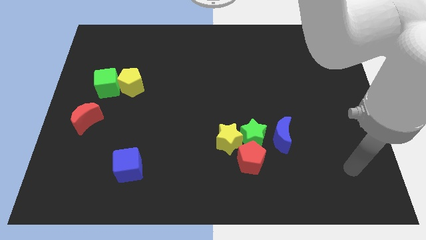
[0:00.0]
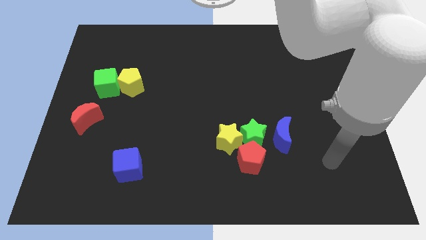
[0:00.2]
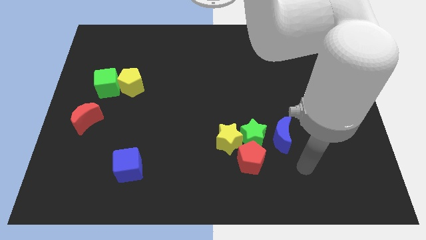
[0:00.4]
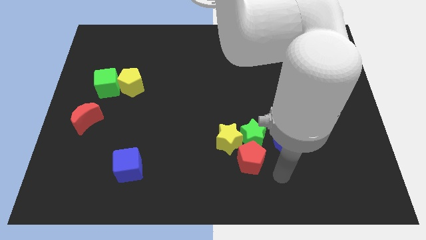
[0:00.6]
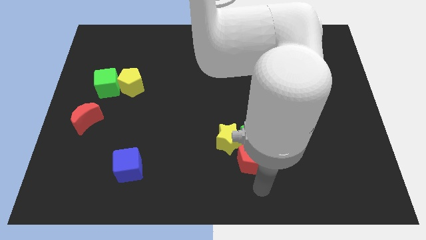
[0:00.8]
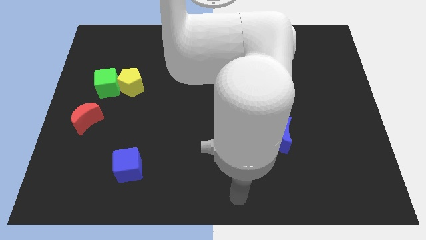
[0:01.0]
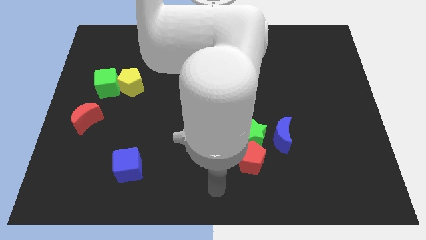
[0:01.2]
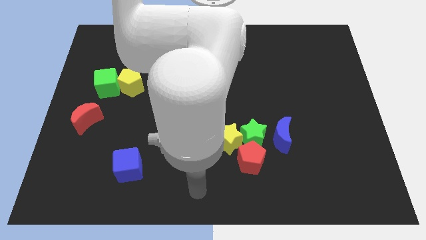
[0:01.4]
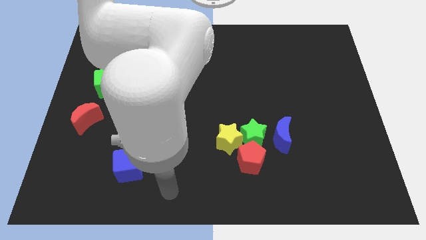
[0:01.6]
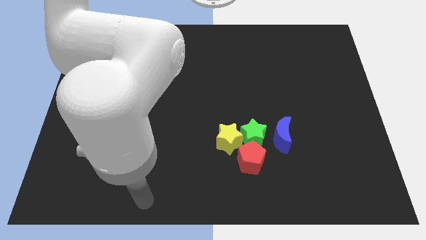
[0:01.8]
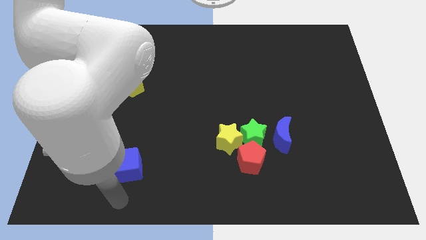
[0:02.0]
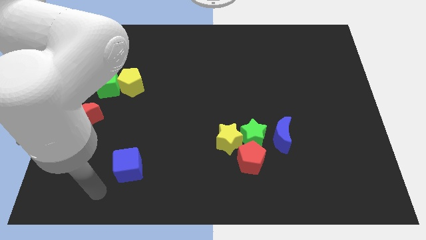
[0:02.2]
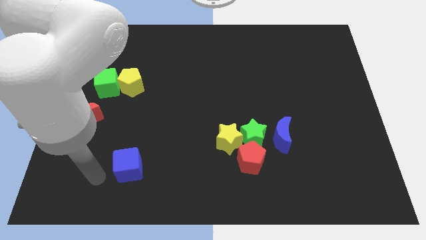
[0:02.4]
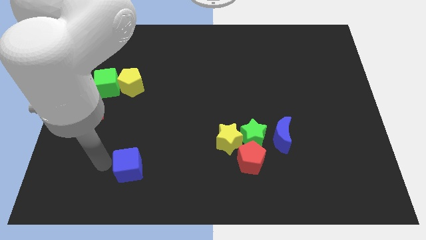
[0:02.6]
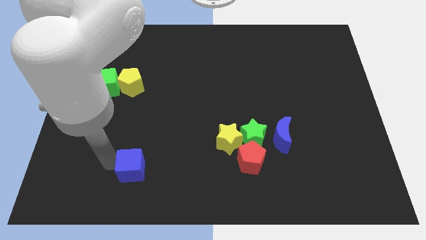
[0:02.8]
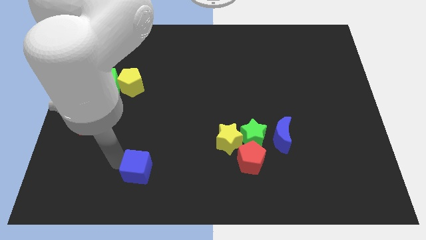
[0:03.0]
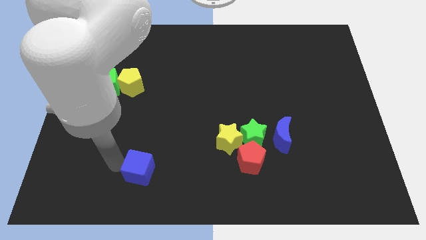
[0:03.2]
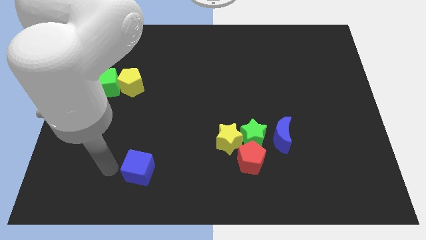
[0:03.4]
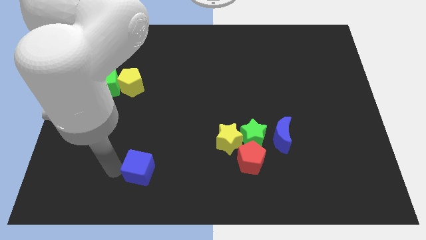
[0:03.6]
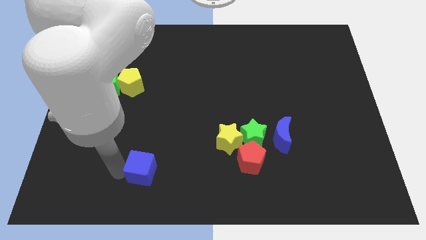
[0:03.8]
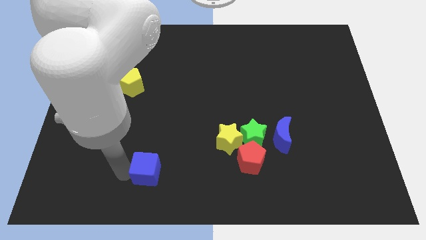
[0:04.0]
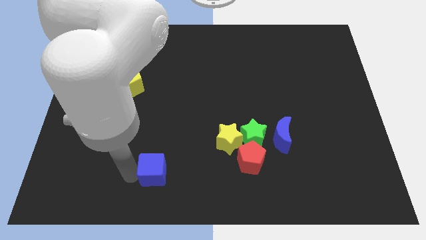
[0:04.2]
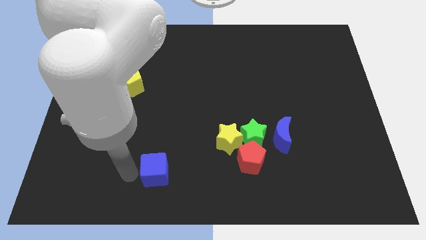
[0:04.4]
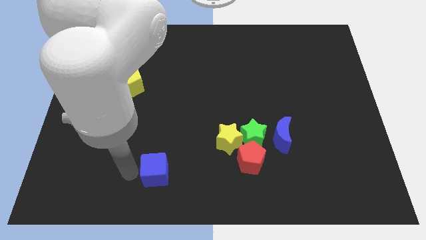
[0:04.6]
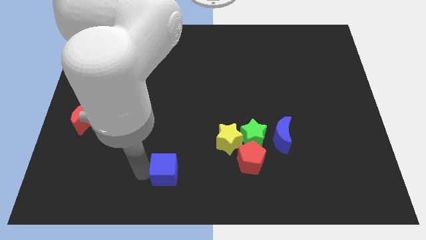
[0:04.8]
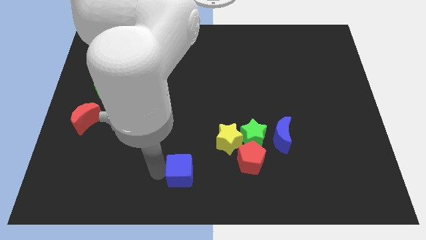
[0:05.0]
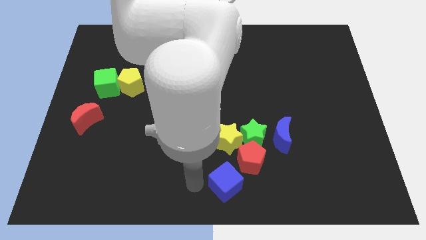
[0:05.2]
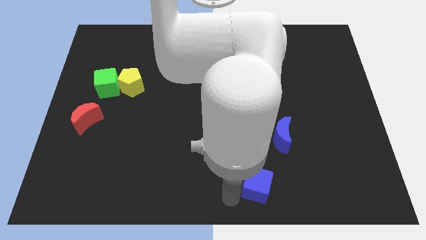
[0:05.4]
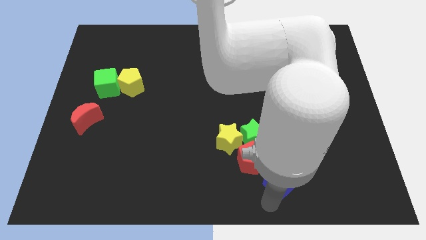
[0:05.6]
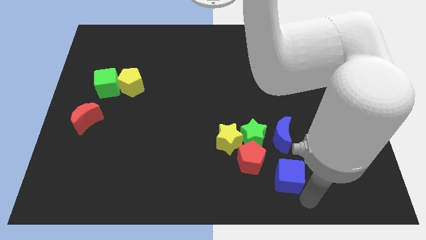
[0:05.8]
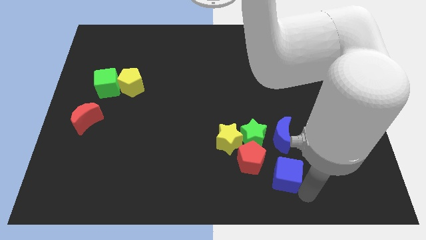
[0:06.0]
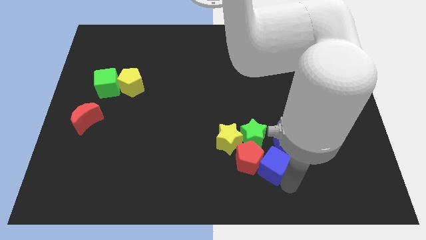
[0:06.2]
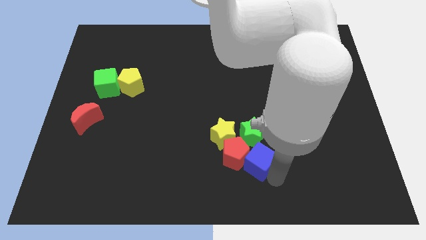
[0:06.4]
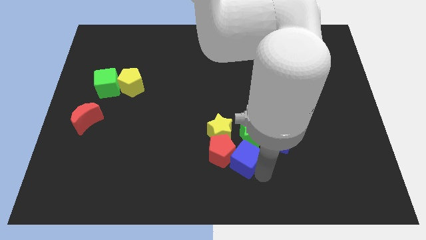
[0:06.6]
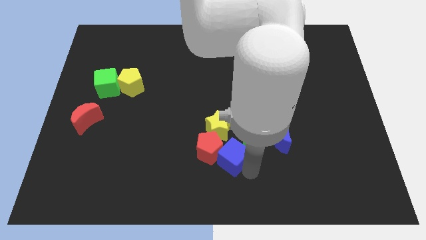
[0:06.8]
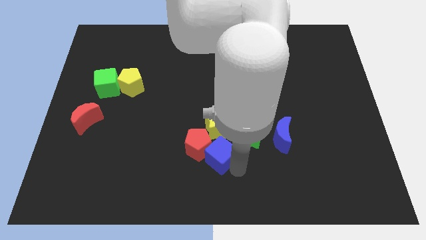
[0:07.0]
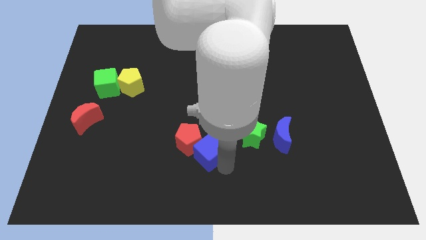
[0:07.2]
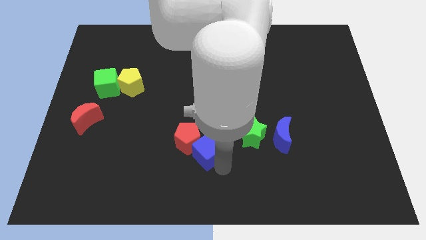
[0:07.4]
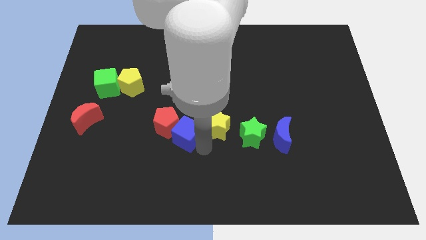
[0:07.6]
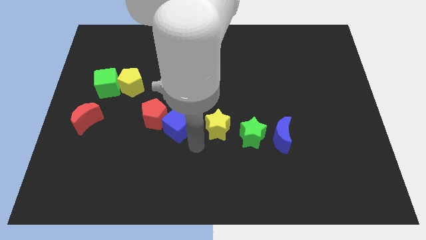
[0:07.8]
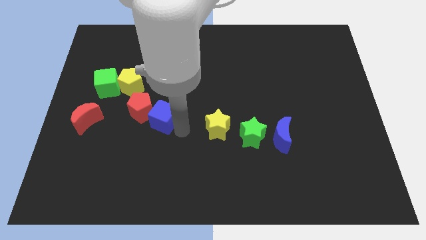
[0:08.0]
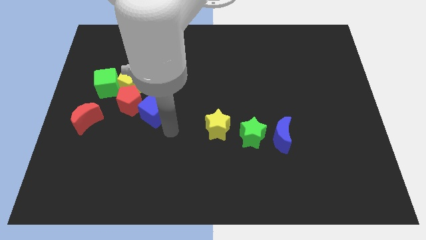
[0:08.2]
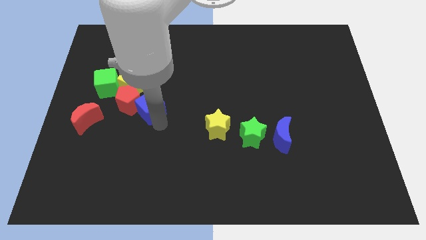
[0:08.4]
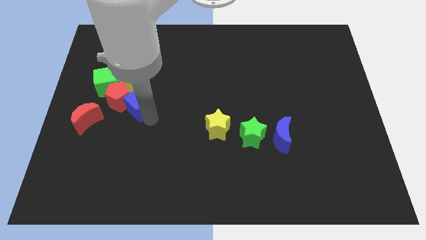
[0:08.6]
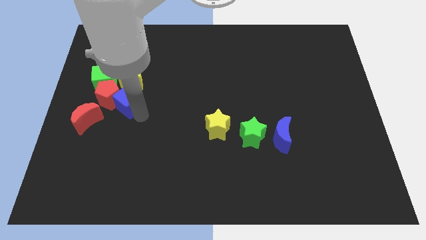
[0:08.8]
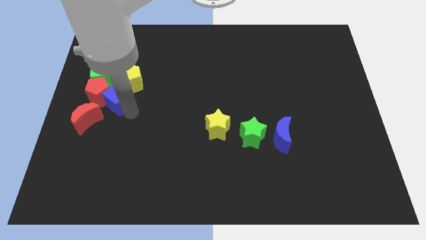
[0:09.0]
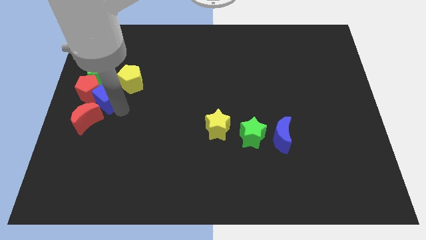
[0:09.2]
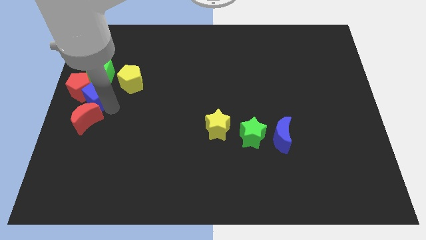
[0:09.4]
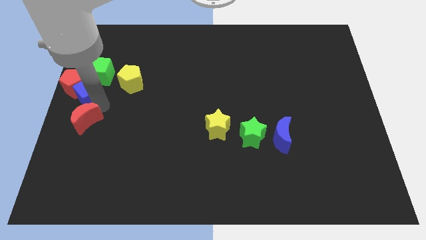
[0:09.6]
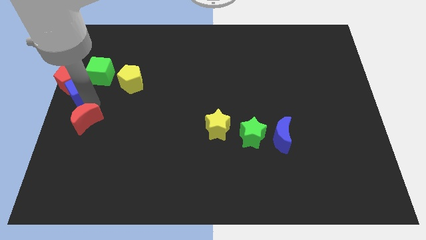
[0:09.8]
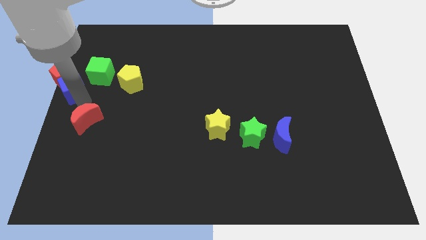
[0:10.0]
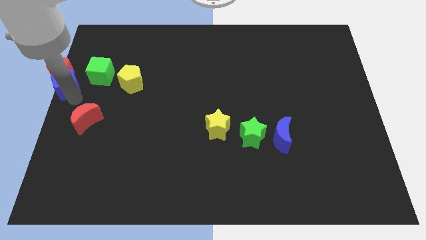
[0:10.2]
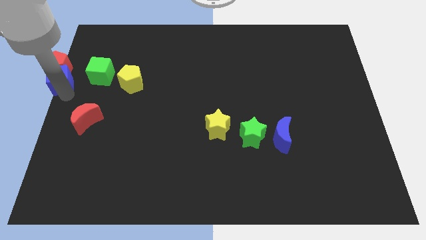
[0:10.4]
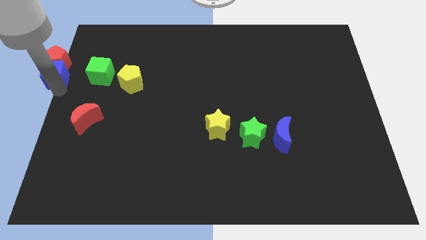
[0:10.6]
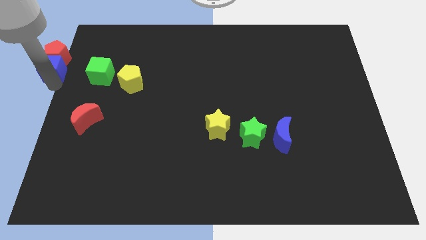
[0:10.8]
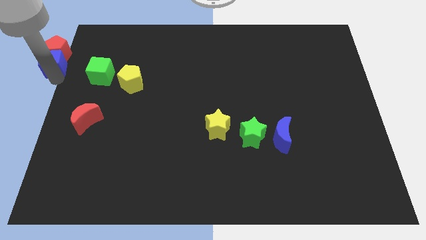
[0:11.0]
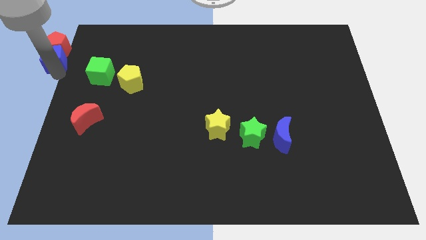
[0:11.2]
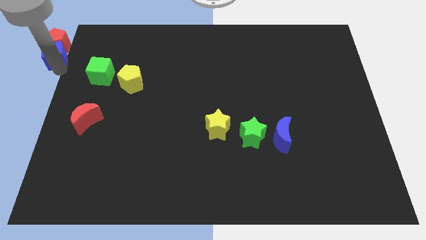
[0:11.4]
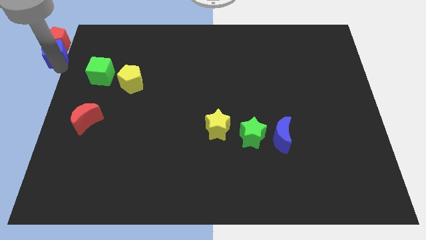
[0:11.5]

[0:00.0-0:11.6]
push the blue cube to the upper left corner

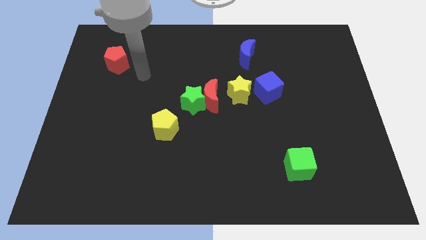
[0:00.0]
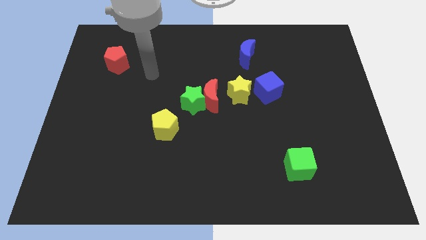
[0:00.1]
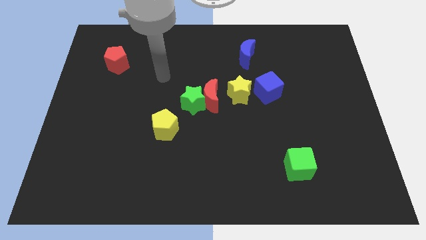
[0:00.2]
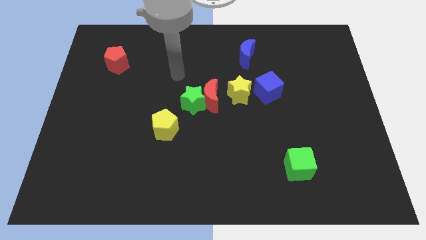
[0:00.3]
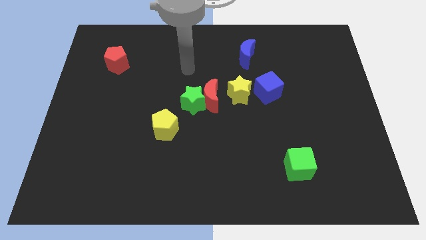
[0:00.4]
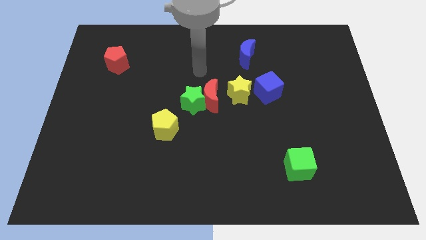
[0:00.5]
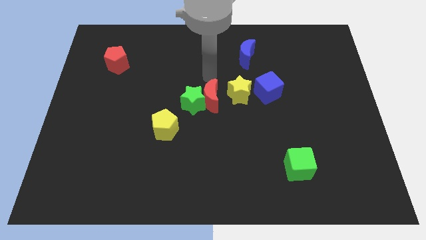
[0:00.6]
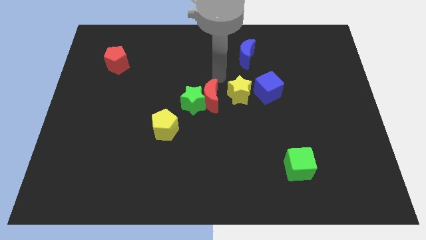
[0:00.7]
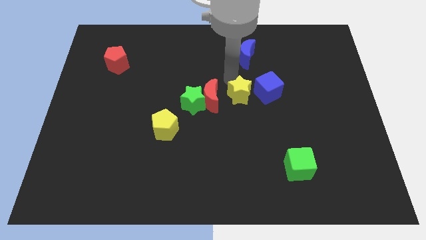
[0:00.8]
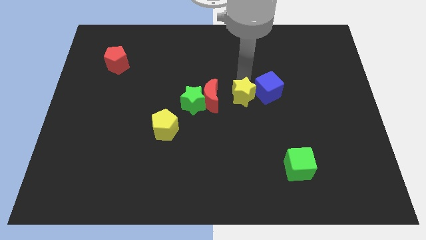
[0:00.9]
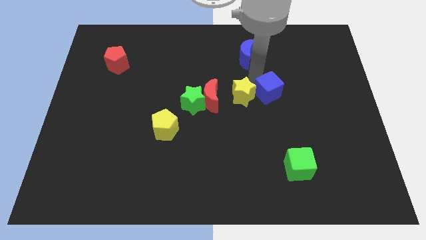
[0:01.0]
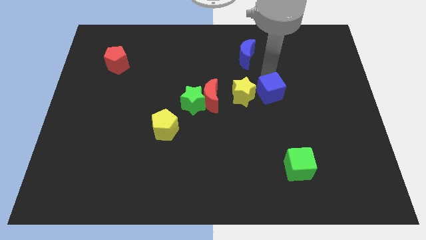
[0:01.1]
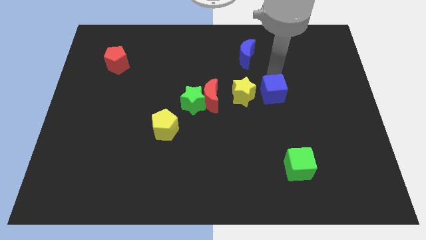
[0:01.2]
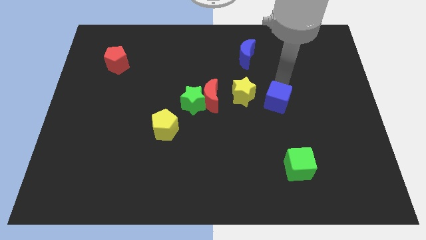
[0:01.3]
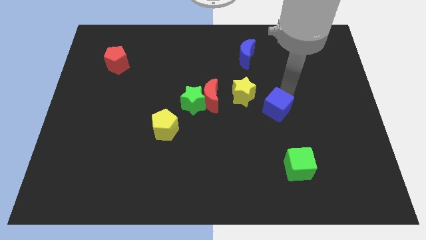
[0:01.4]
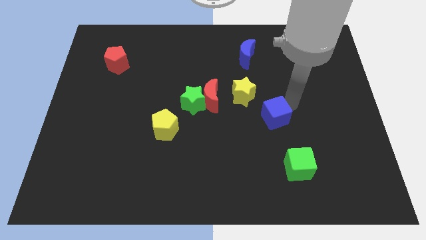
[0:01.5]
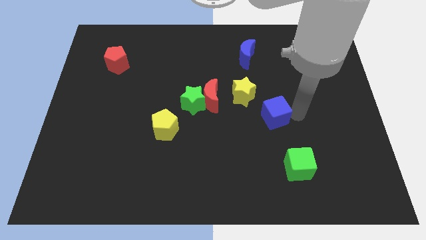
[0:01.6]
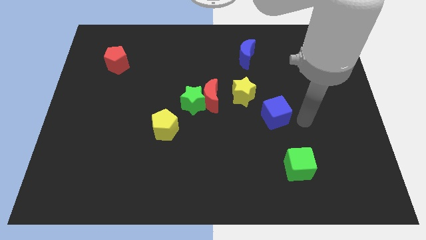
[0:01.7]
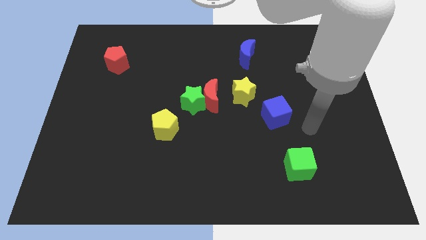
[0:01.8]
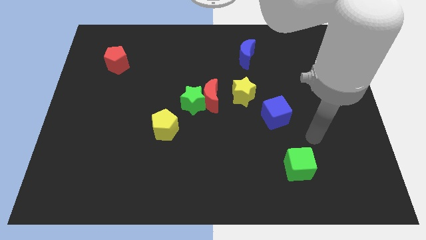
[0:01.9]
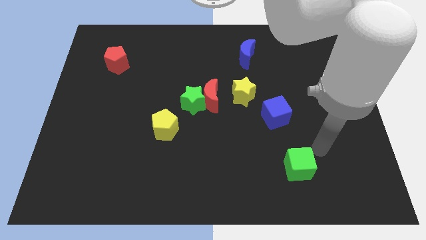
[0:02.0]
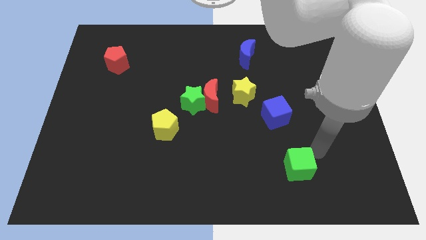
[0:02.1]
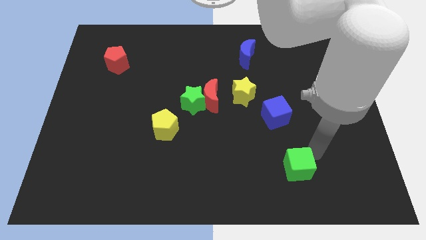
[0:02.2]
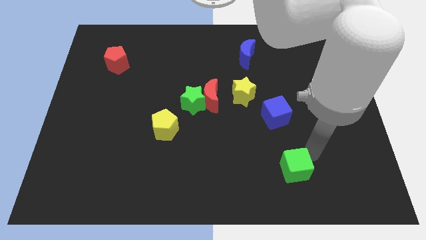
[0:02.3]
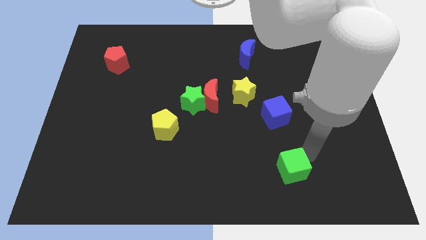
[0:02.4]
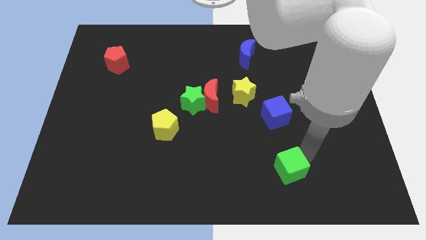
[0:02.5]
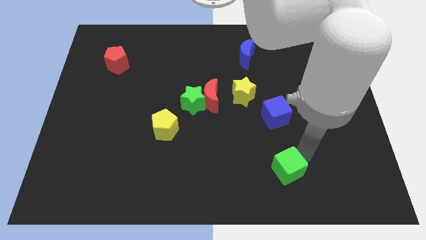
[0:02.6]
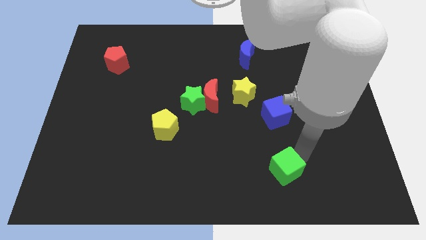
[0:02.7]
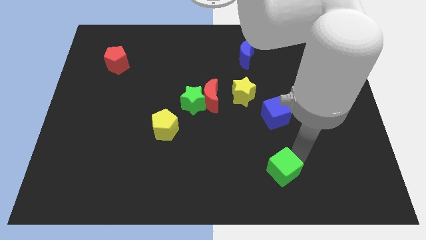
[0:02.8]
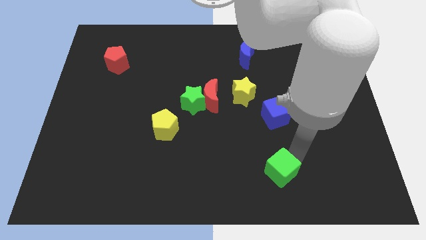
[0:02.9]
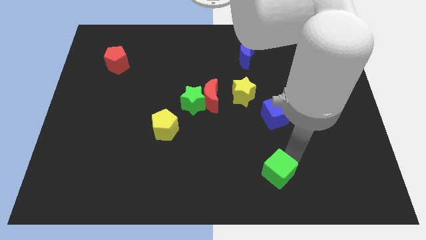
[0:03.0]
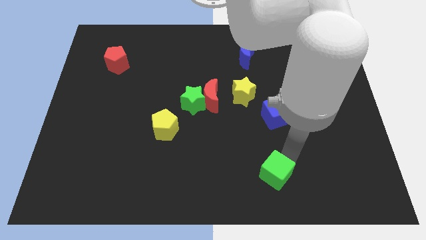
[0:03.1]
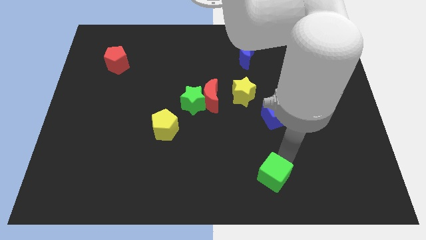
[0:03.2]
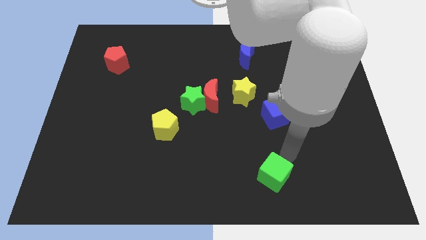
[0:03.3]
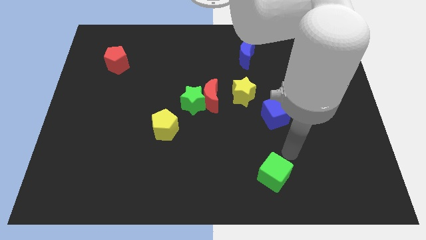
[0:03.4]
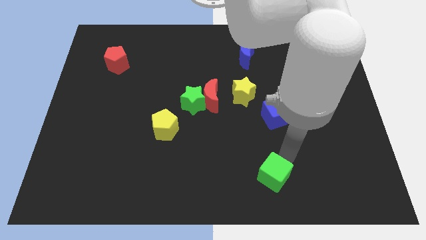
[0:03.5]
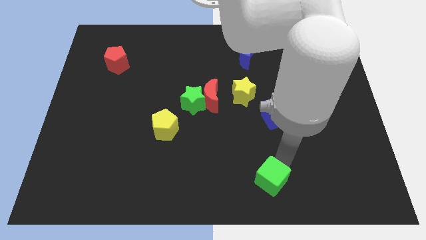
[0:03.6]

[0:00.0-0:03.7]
slide the green cube to the bottom
